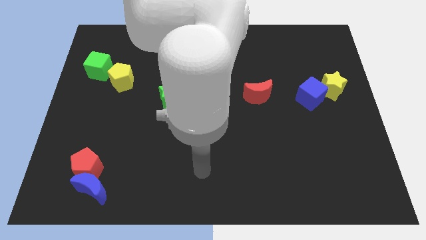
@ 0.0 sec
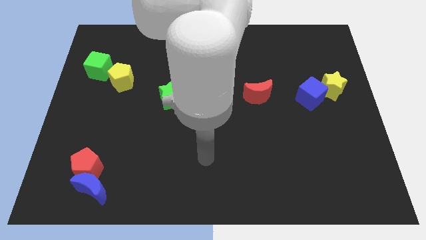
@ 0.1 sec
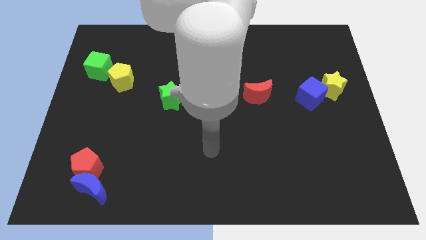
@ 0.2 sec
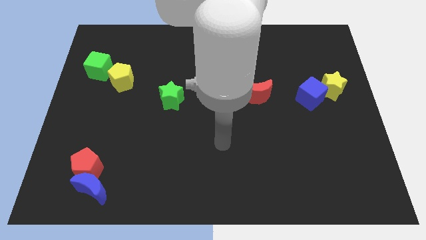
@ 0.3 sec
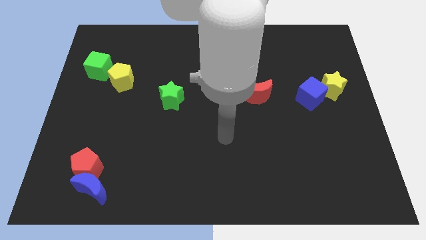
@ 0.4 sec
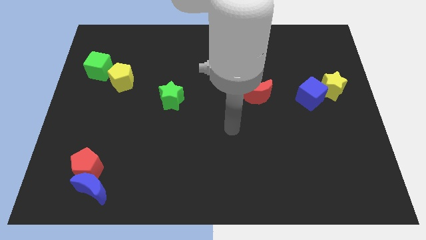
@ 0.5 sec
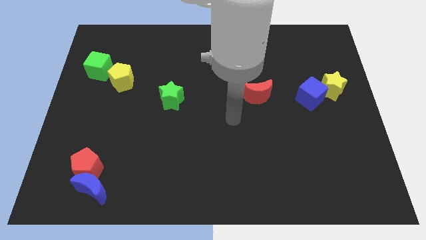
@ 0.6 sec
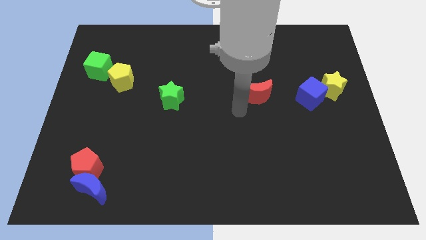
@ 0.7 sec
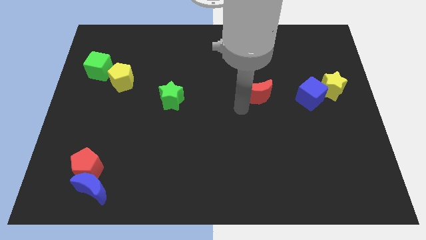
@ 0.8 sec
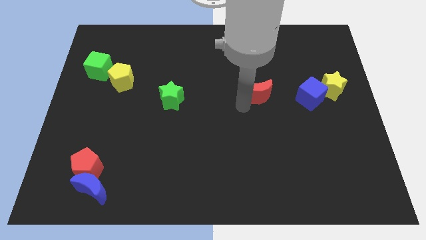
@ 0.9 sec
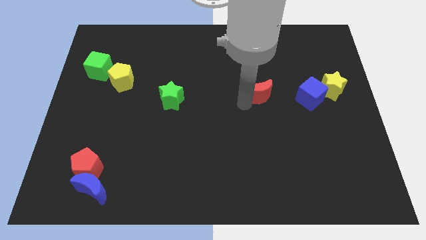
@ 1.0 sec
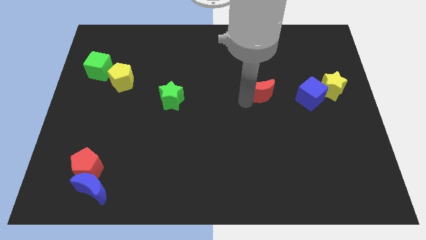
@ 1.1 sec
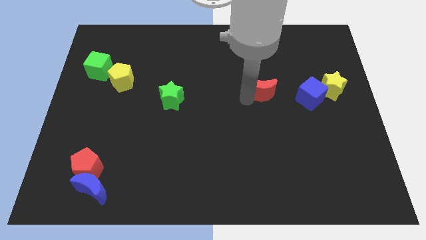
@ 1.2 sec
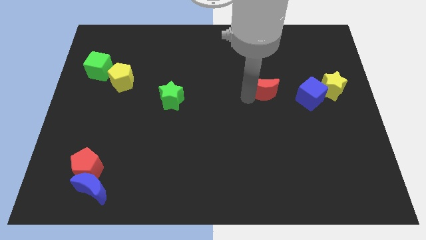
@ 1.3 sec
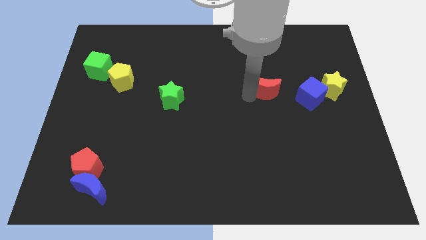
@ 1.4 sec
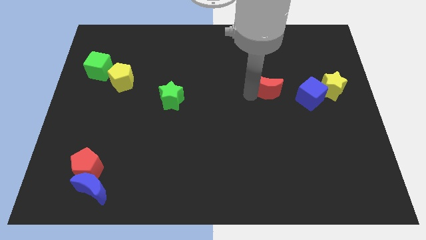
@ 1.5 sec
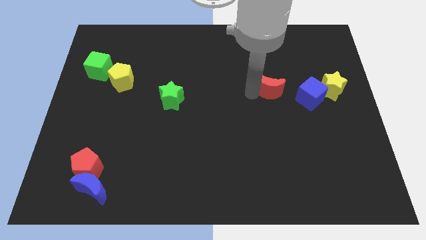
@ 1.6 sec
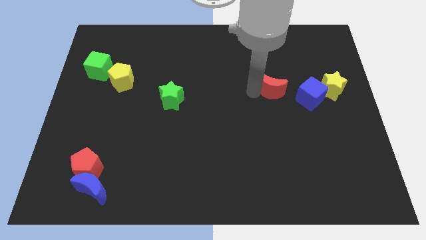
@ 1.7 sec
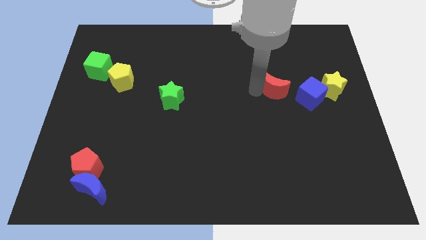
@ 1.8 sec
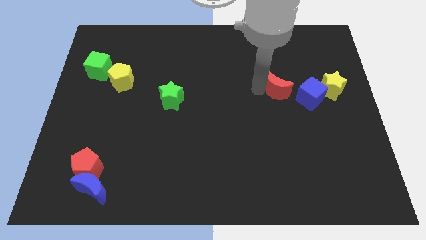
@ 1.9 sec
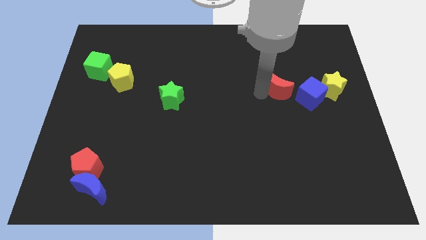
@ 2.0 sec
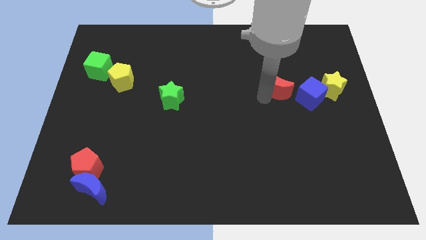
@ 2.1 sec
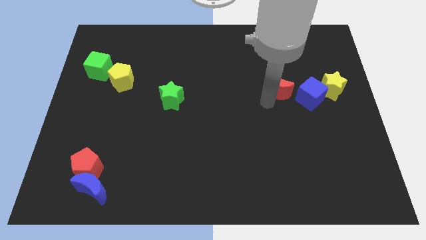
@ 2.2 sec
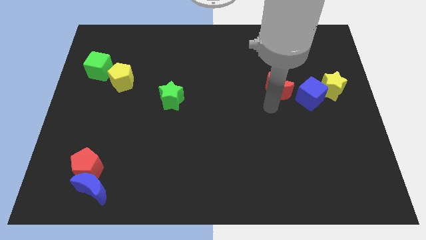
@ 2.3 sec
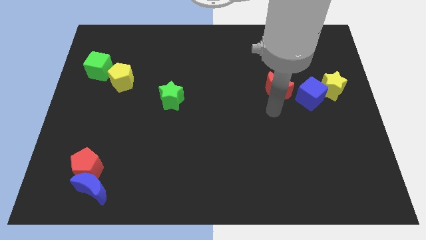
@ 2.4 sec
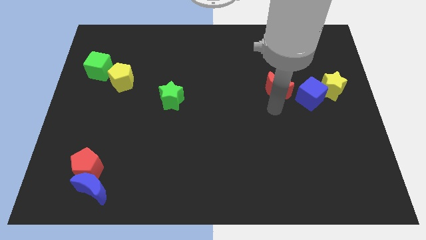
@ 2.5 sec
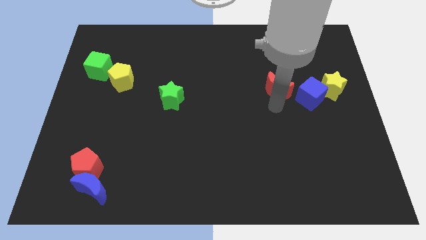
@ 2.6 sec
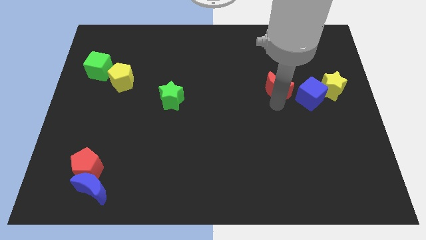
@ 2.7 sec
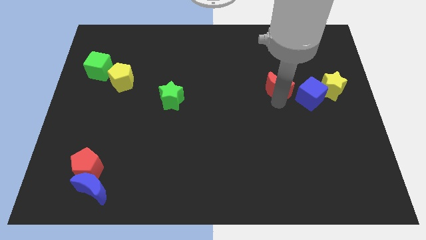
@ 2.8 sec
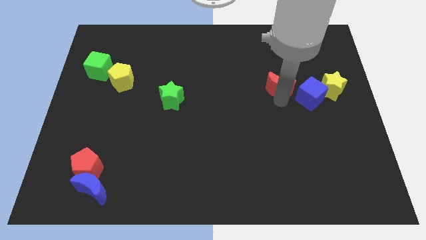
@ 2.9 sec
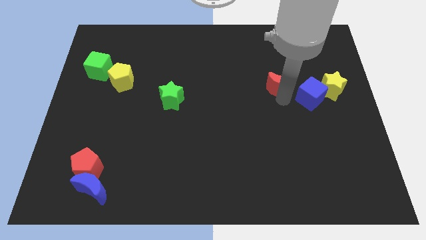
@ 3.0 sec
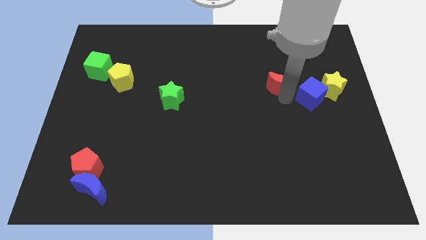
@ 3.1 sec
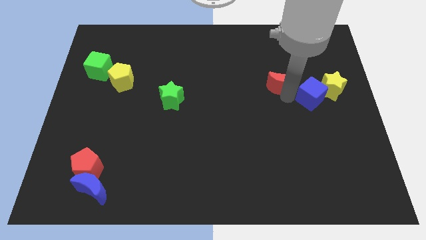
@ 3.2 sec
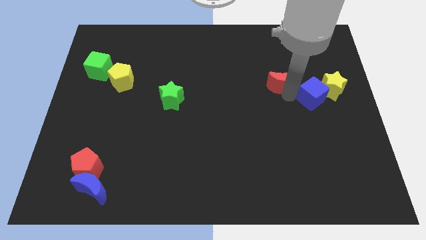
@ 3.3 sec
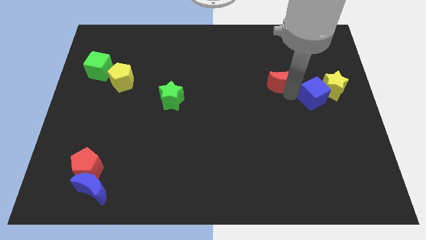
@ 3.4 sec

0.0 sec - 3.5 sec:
slightly push the red moon upwards and then to the right

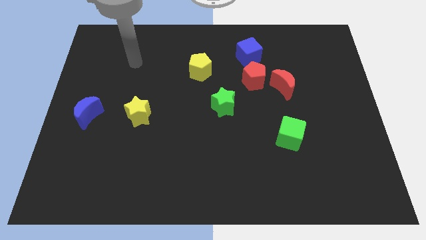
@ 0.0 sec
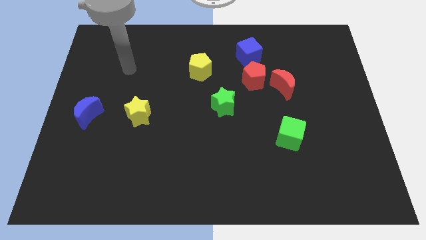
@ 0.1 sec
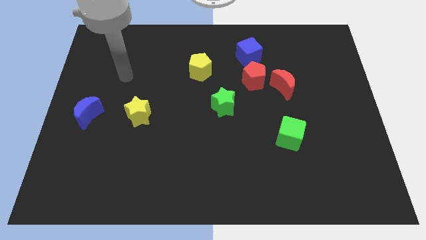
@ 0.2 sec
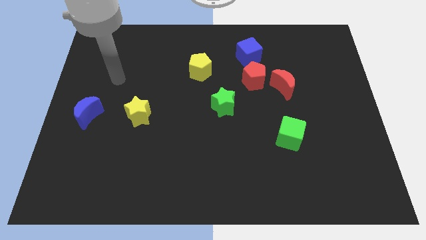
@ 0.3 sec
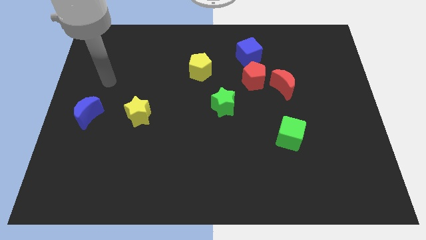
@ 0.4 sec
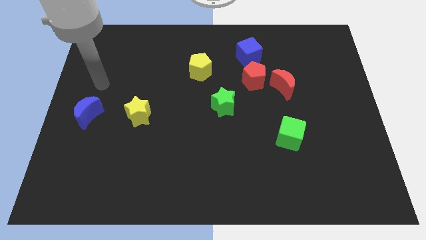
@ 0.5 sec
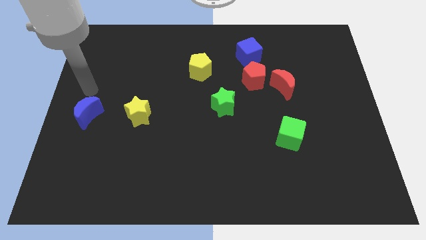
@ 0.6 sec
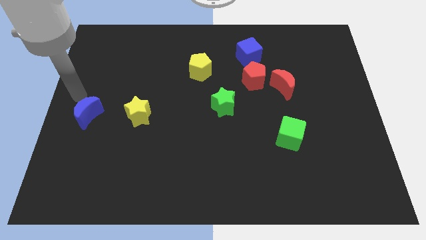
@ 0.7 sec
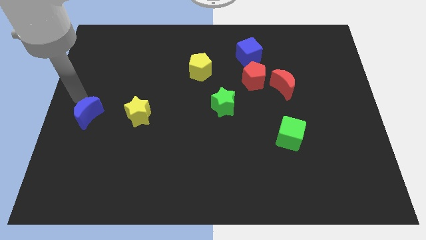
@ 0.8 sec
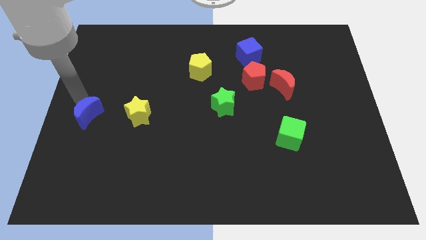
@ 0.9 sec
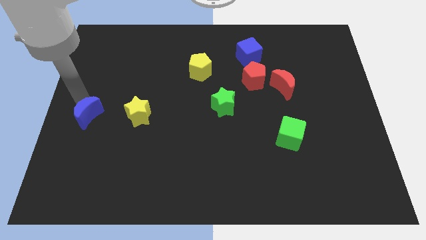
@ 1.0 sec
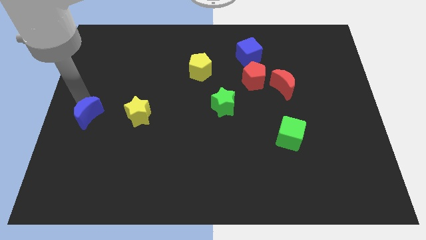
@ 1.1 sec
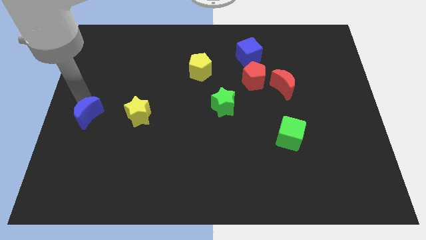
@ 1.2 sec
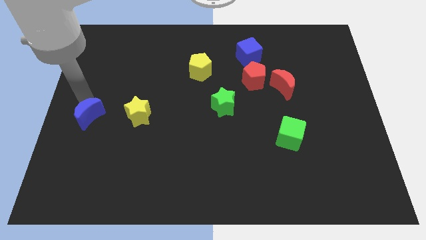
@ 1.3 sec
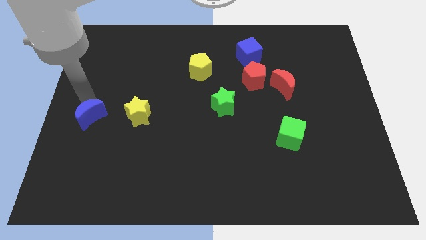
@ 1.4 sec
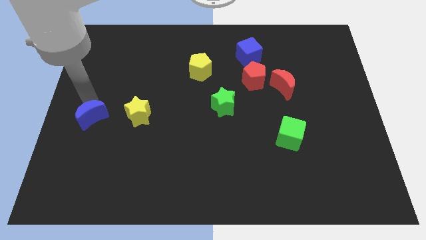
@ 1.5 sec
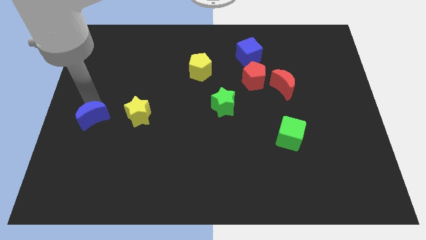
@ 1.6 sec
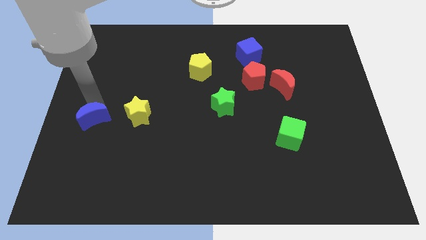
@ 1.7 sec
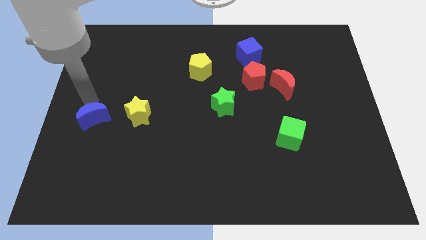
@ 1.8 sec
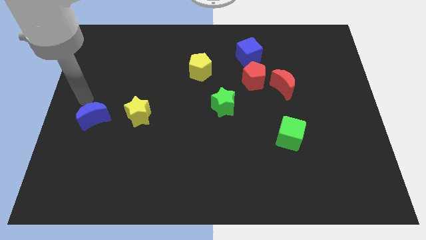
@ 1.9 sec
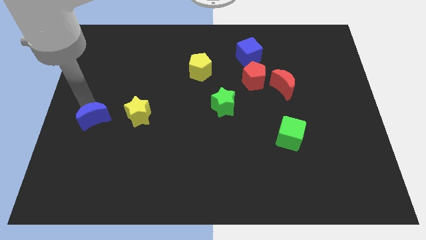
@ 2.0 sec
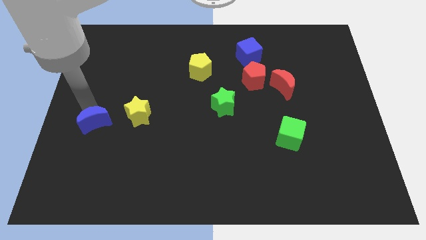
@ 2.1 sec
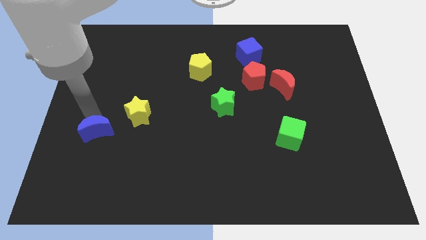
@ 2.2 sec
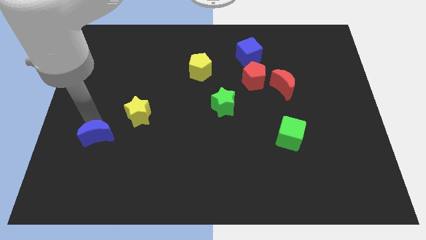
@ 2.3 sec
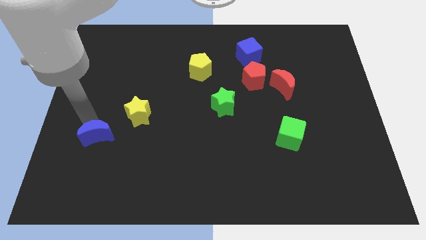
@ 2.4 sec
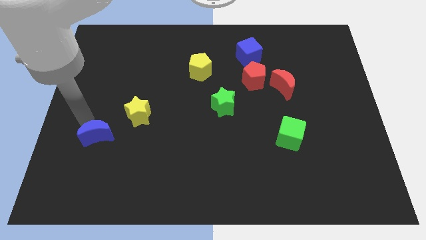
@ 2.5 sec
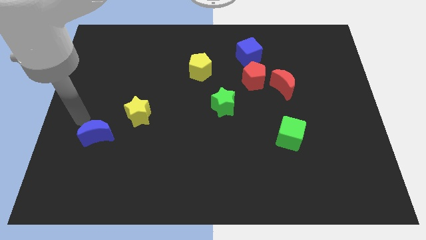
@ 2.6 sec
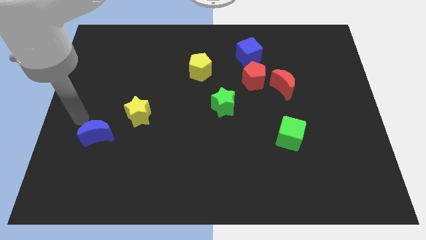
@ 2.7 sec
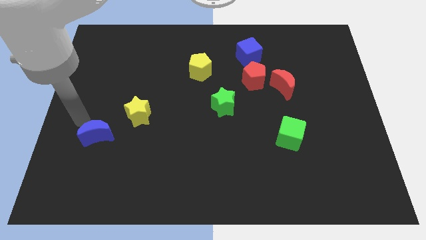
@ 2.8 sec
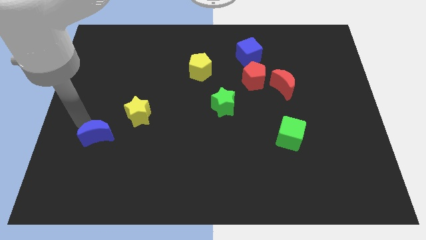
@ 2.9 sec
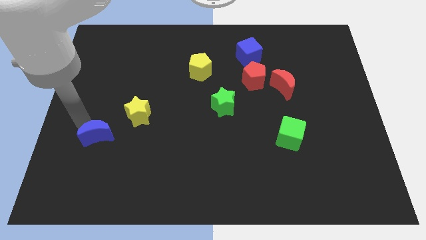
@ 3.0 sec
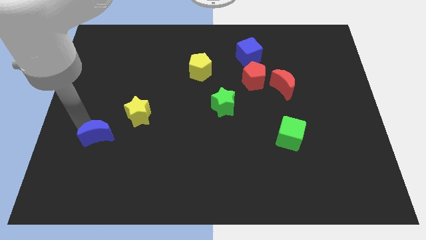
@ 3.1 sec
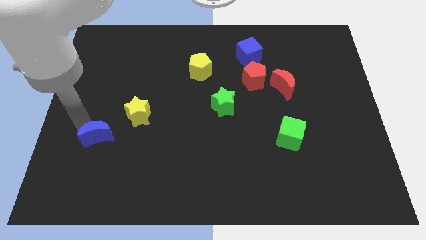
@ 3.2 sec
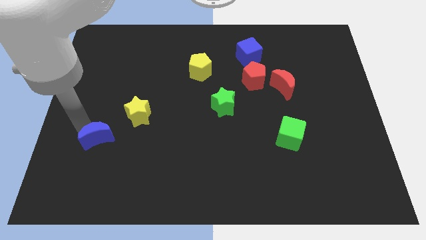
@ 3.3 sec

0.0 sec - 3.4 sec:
slightly push the blue moon diagonally downwards and right

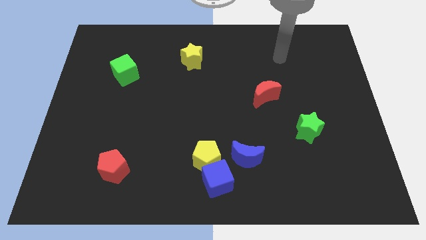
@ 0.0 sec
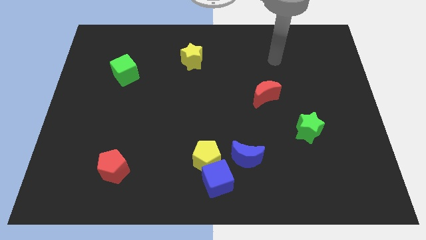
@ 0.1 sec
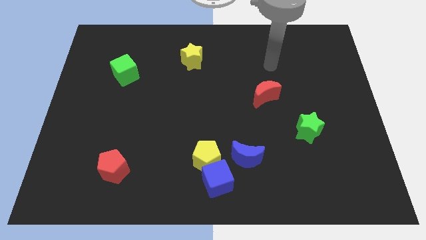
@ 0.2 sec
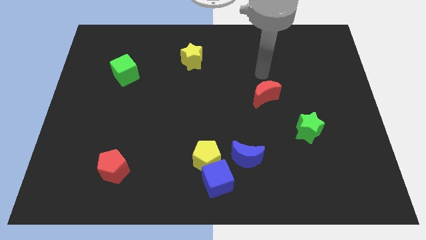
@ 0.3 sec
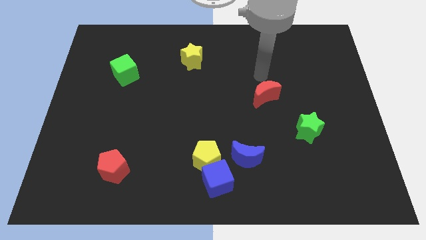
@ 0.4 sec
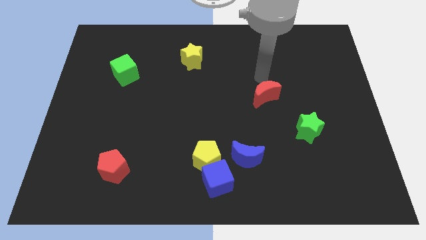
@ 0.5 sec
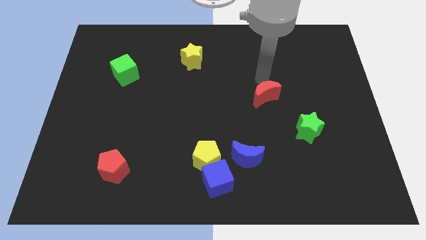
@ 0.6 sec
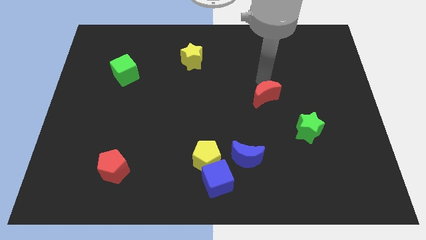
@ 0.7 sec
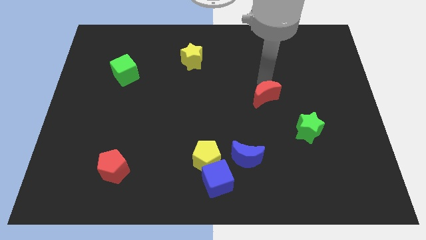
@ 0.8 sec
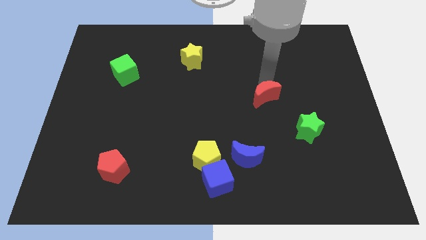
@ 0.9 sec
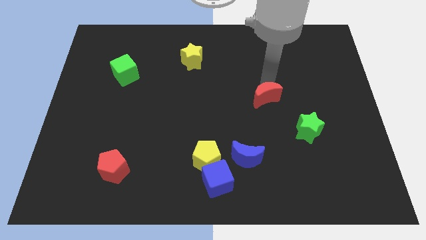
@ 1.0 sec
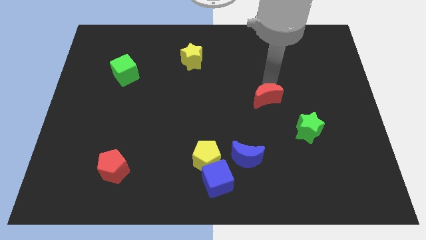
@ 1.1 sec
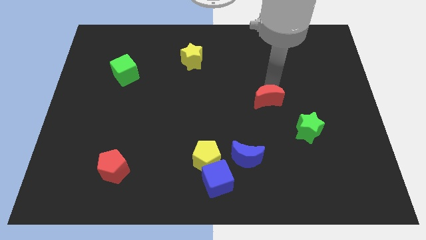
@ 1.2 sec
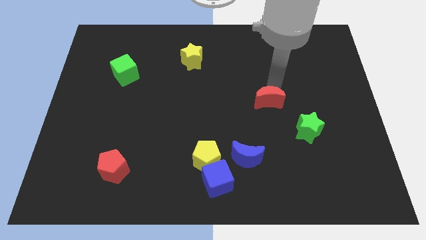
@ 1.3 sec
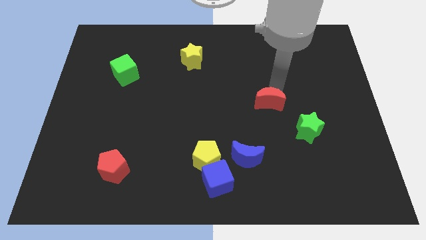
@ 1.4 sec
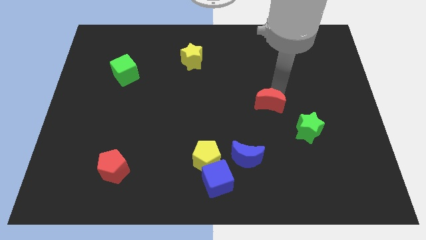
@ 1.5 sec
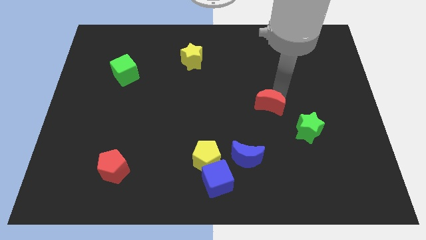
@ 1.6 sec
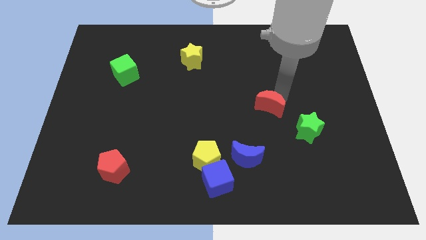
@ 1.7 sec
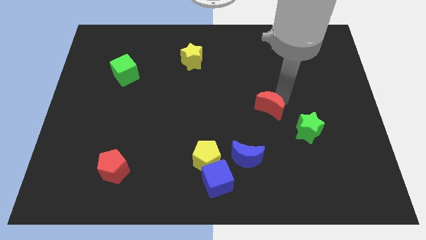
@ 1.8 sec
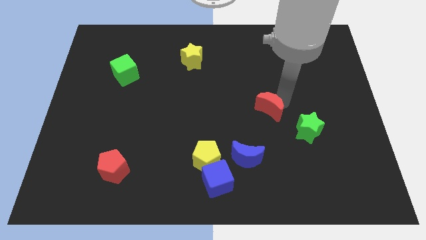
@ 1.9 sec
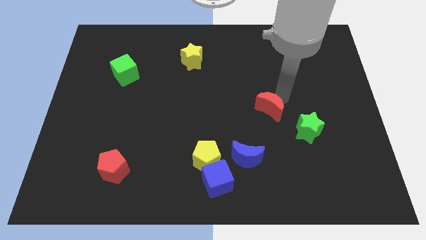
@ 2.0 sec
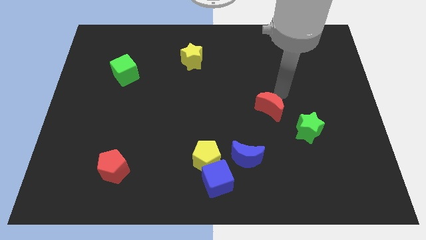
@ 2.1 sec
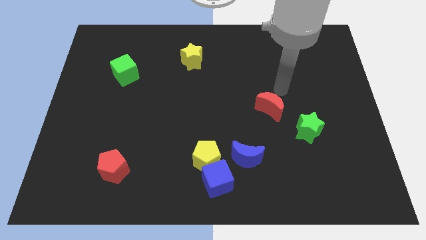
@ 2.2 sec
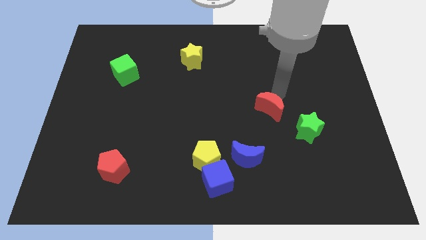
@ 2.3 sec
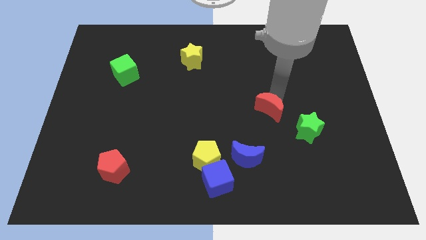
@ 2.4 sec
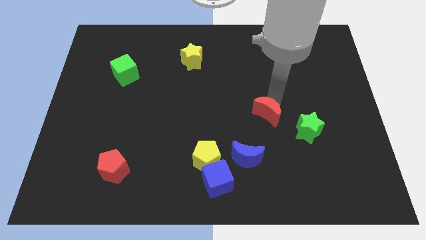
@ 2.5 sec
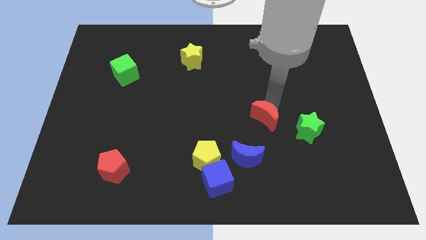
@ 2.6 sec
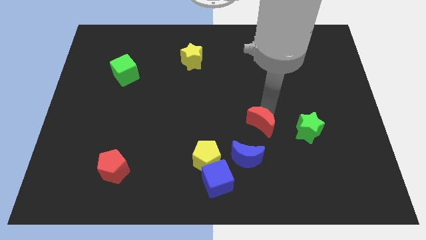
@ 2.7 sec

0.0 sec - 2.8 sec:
push the red moon a little bit down
